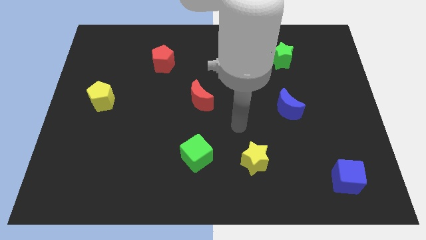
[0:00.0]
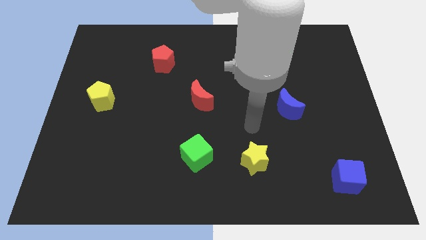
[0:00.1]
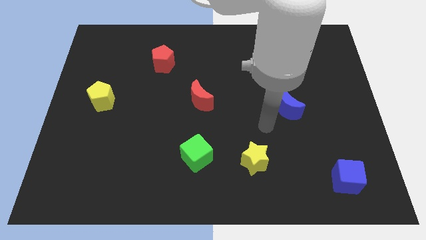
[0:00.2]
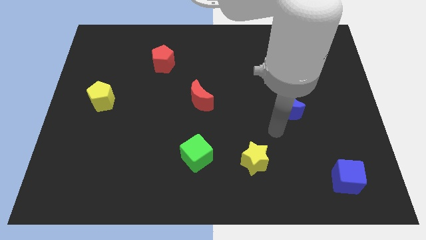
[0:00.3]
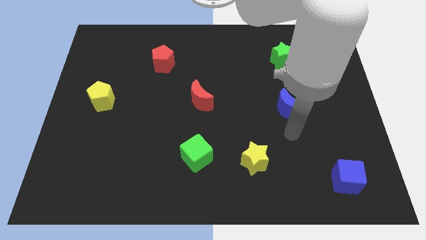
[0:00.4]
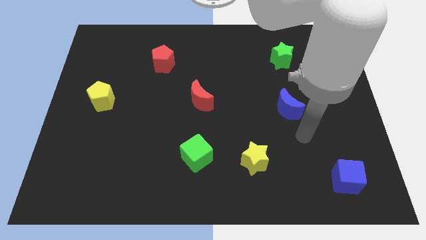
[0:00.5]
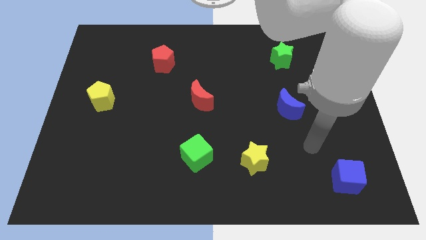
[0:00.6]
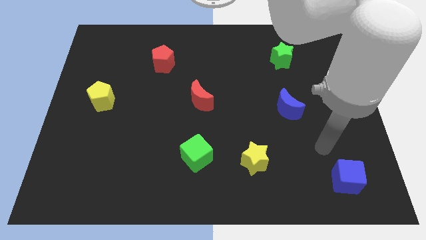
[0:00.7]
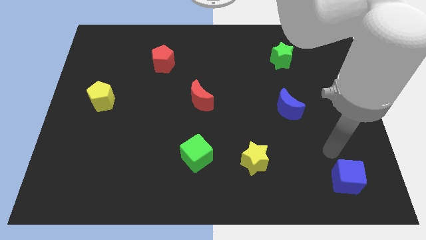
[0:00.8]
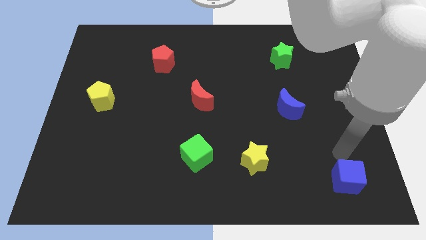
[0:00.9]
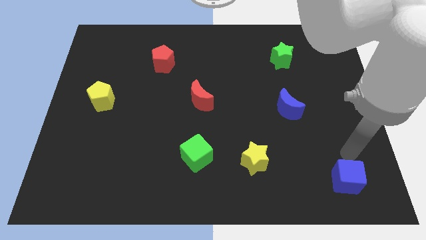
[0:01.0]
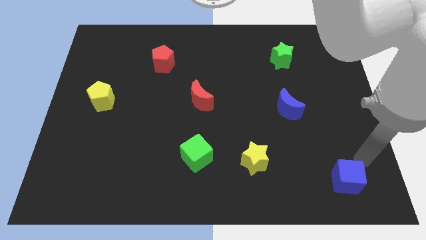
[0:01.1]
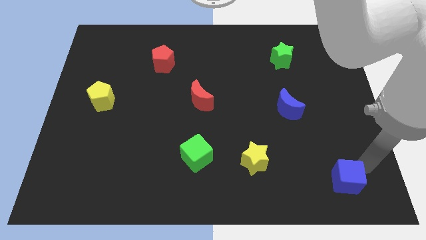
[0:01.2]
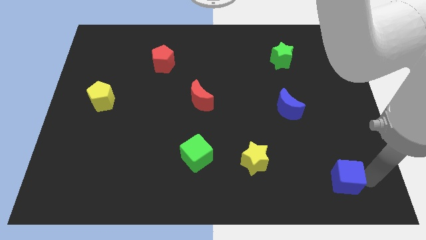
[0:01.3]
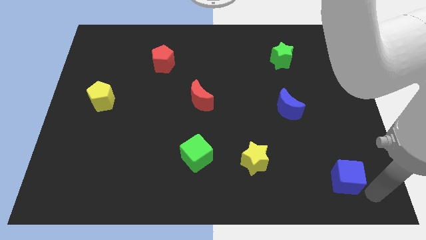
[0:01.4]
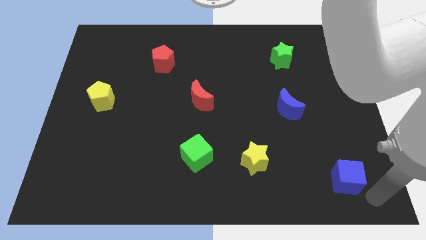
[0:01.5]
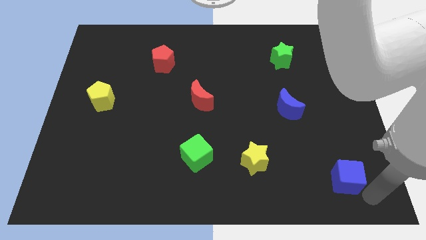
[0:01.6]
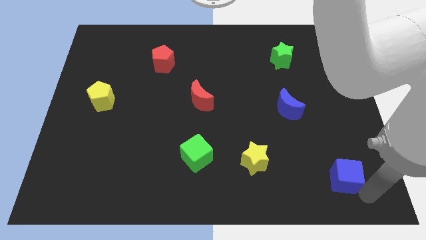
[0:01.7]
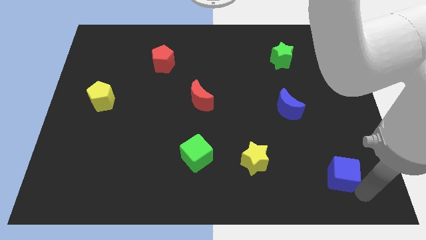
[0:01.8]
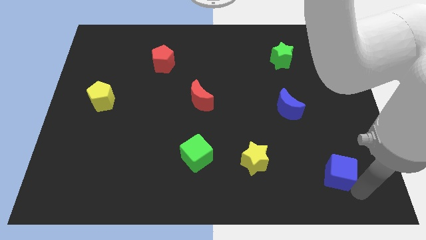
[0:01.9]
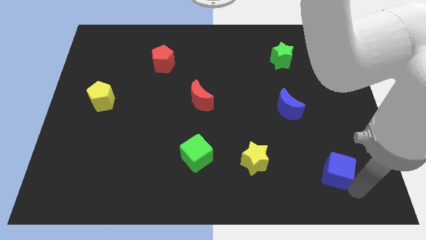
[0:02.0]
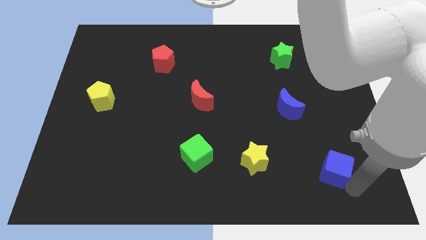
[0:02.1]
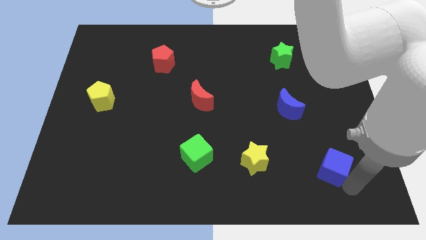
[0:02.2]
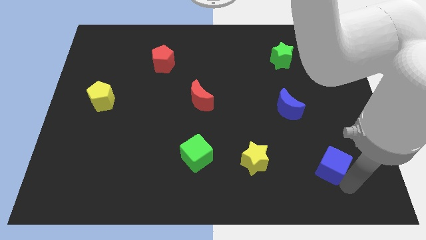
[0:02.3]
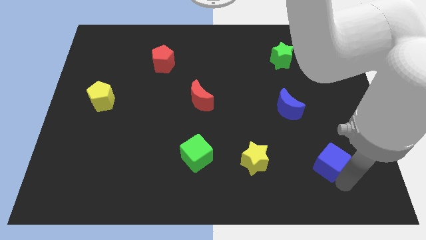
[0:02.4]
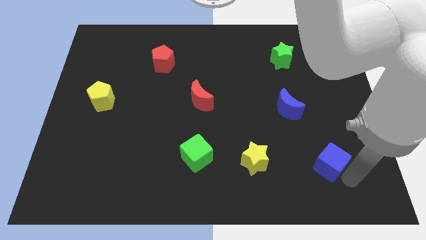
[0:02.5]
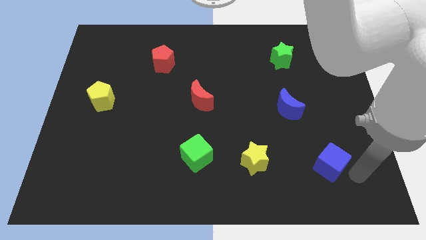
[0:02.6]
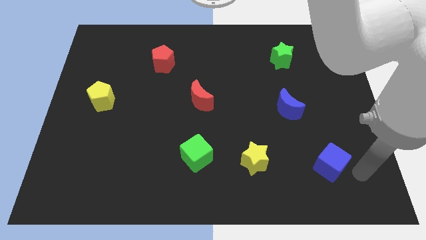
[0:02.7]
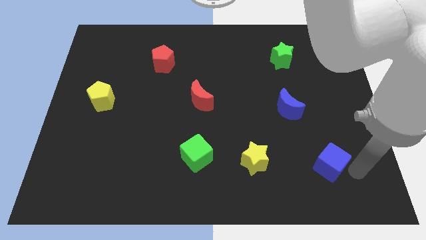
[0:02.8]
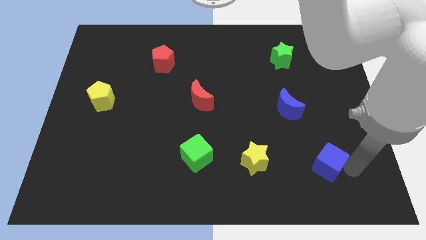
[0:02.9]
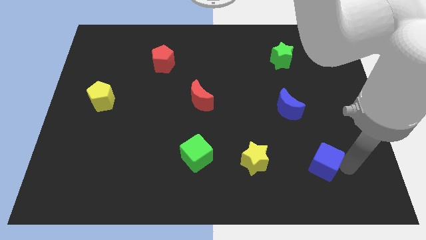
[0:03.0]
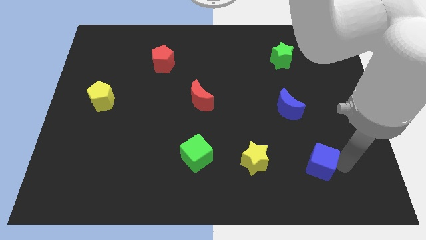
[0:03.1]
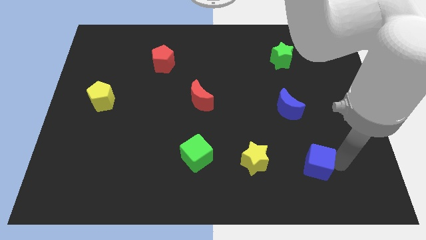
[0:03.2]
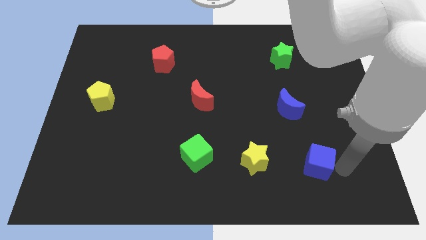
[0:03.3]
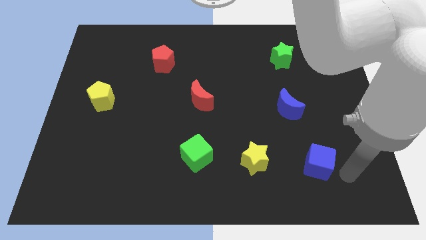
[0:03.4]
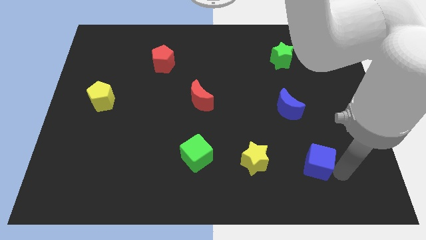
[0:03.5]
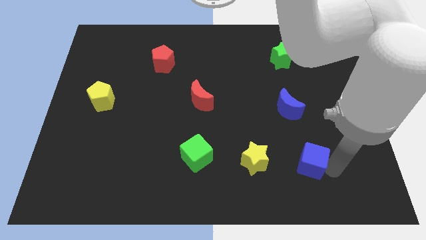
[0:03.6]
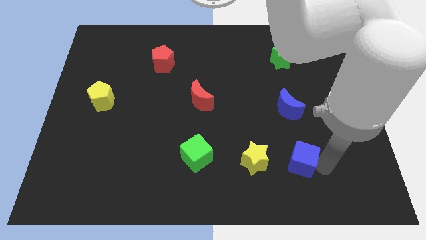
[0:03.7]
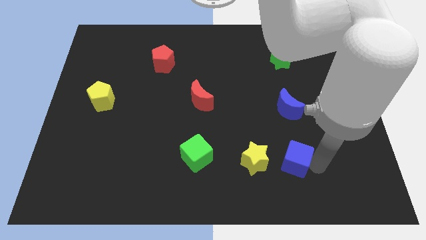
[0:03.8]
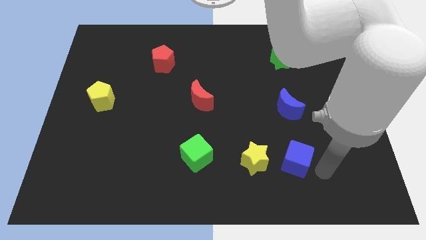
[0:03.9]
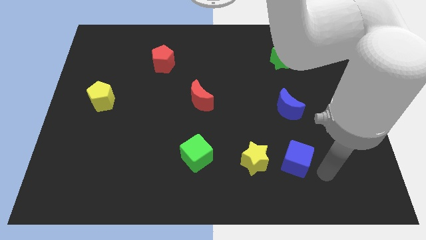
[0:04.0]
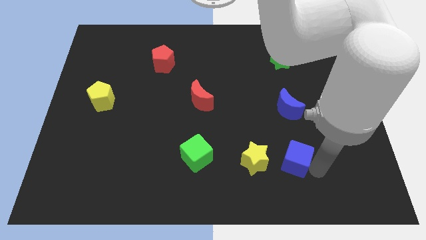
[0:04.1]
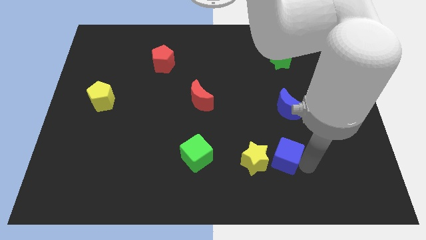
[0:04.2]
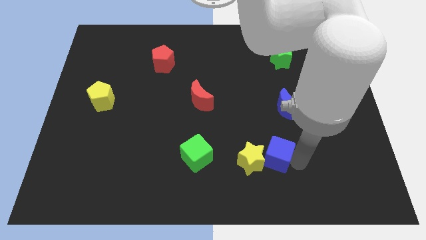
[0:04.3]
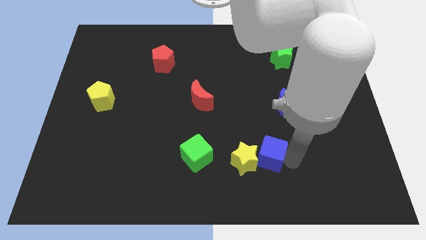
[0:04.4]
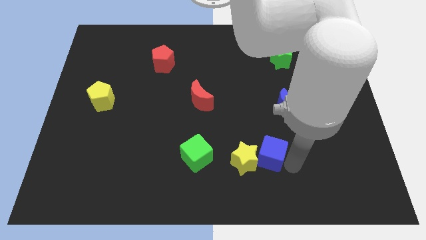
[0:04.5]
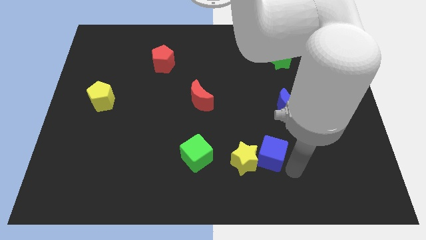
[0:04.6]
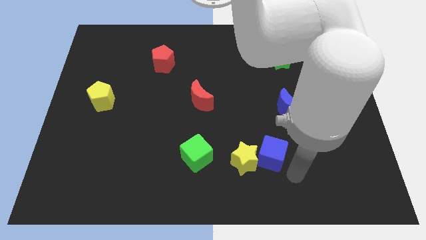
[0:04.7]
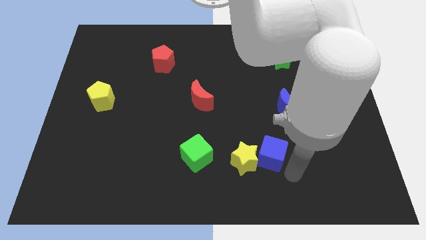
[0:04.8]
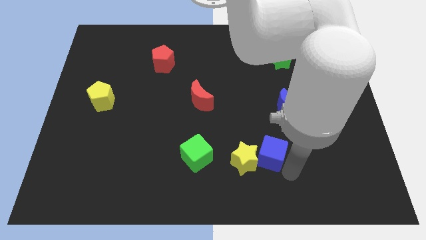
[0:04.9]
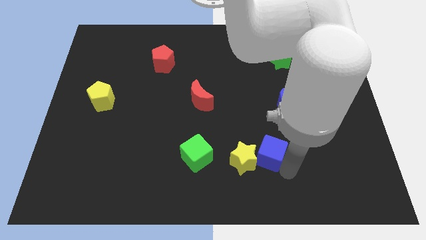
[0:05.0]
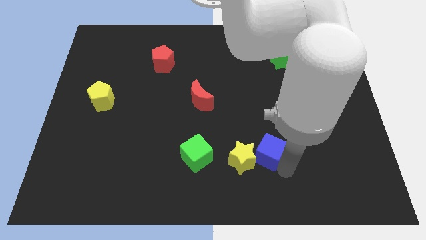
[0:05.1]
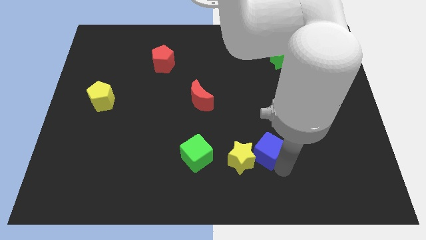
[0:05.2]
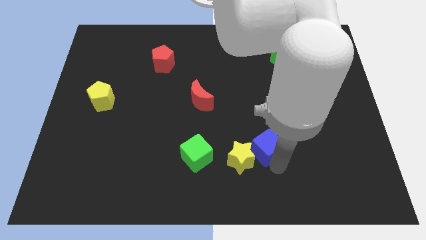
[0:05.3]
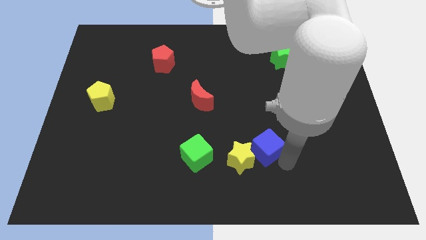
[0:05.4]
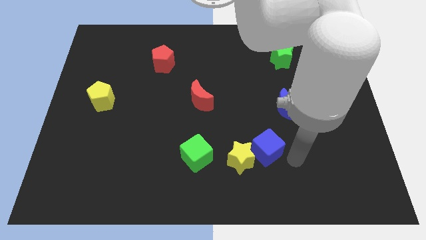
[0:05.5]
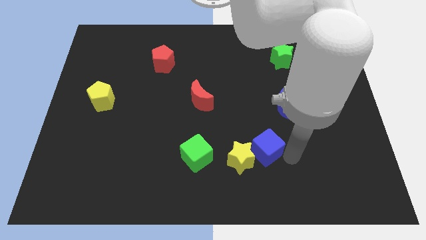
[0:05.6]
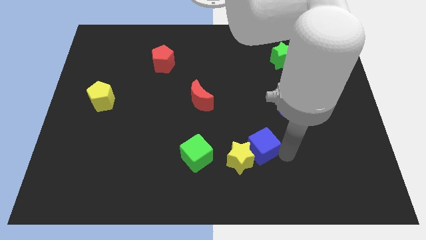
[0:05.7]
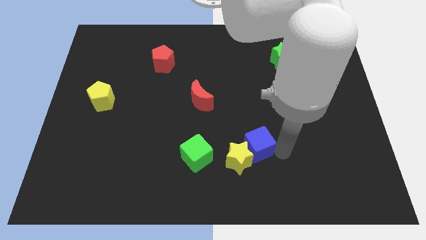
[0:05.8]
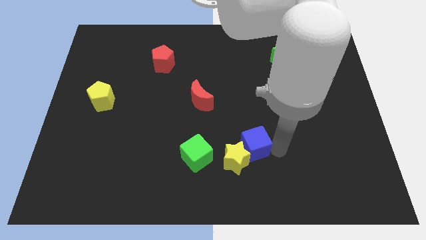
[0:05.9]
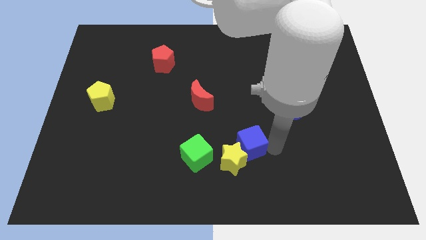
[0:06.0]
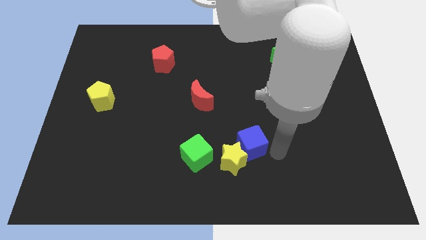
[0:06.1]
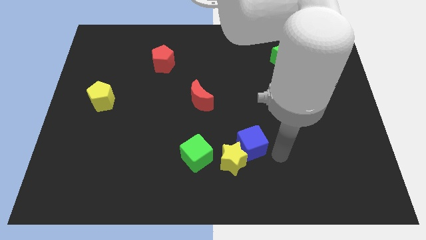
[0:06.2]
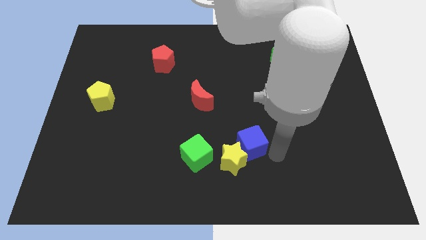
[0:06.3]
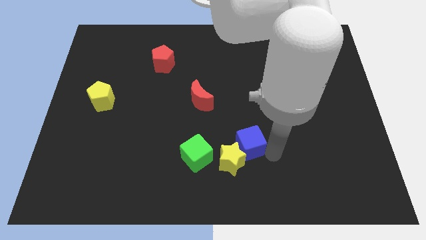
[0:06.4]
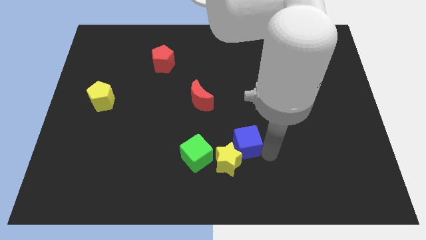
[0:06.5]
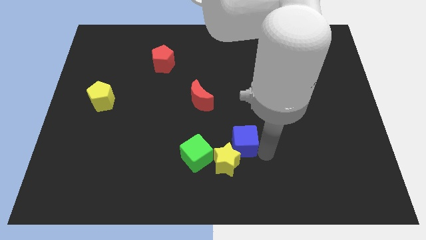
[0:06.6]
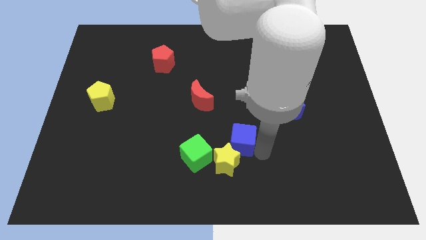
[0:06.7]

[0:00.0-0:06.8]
slide the blue cube to the top right side of the green cube

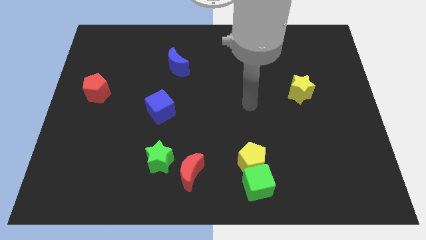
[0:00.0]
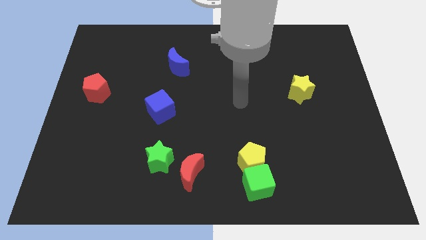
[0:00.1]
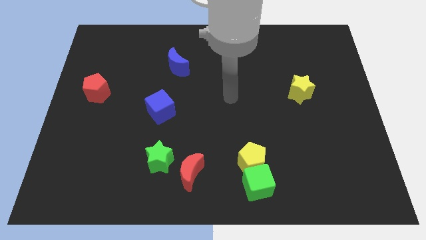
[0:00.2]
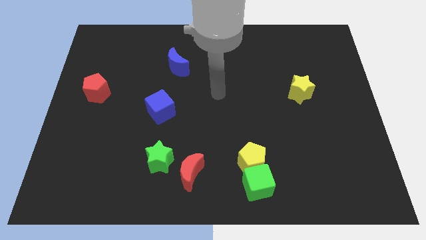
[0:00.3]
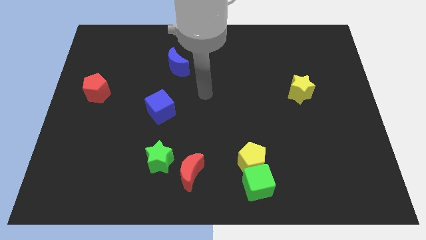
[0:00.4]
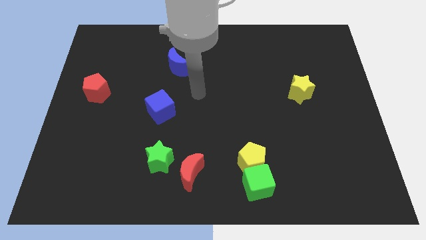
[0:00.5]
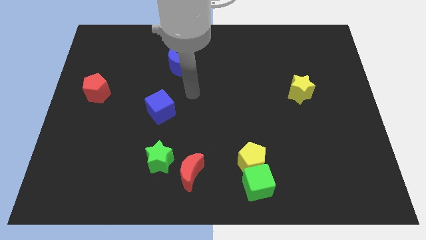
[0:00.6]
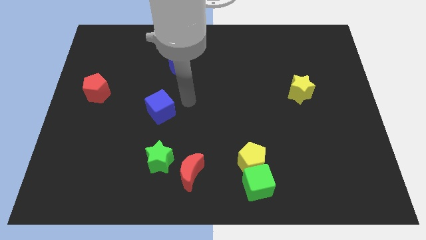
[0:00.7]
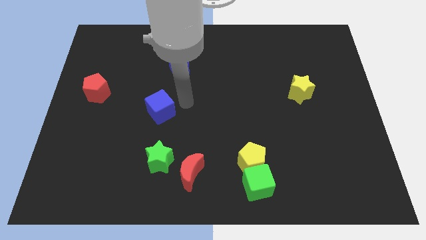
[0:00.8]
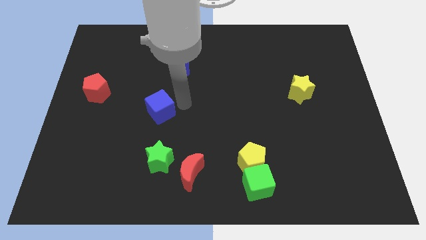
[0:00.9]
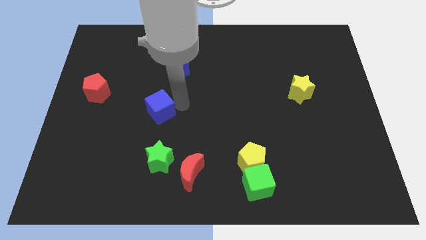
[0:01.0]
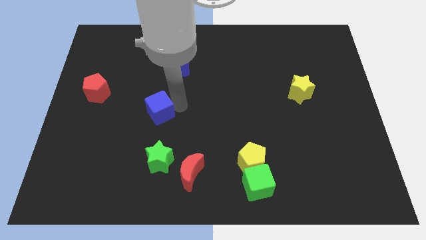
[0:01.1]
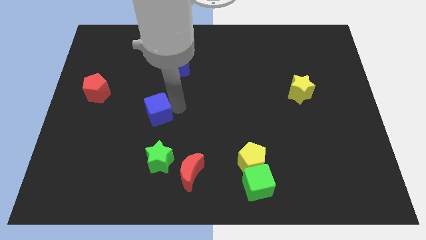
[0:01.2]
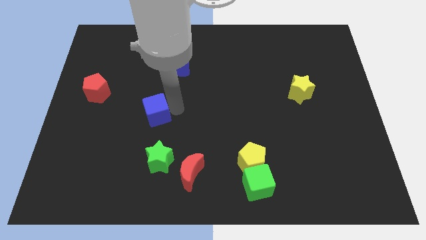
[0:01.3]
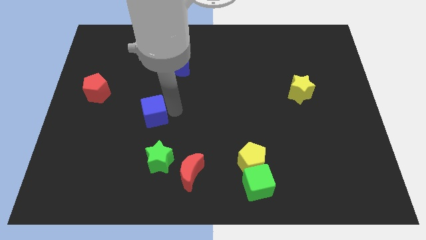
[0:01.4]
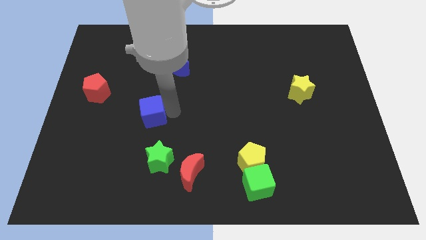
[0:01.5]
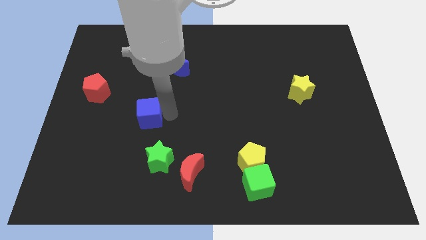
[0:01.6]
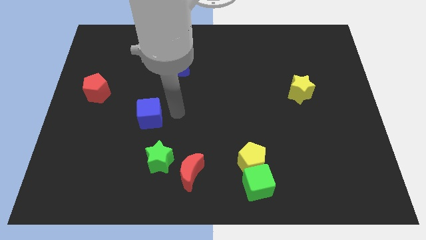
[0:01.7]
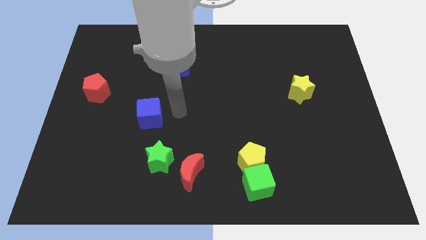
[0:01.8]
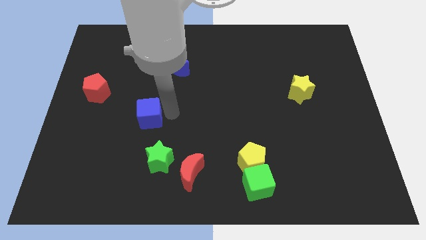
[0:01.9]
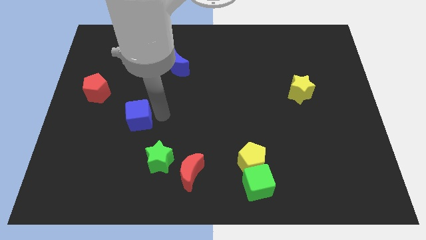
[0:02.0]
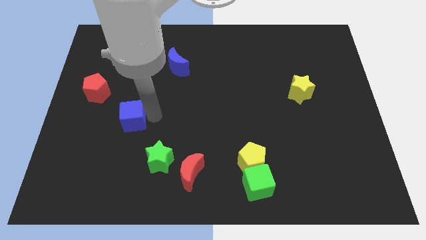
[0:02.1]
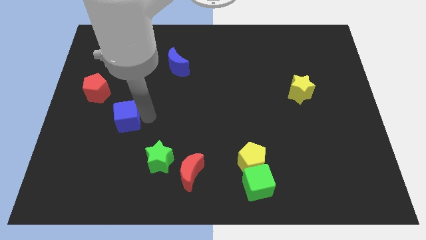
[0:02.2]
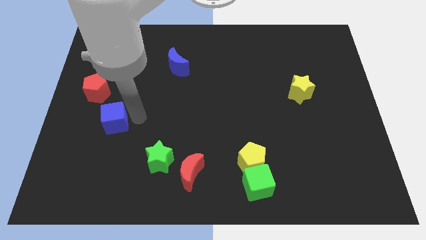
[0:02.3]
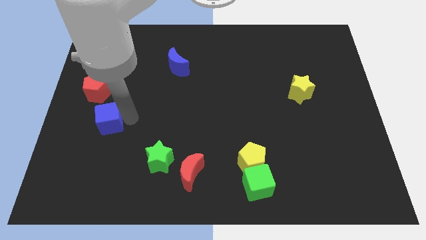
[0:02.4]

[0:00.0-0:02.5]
push the blue cube below the red pentagon
